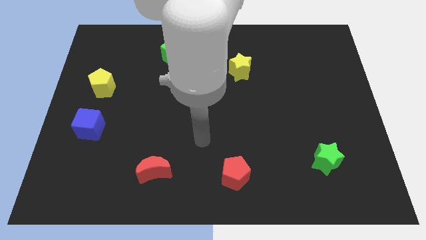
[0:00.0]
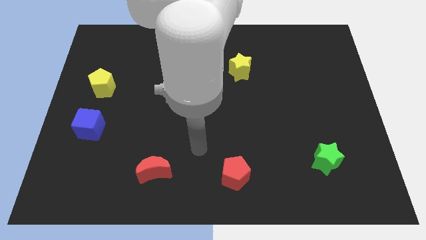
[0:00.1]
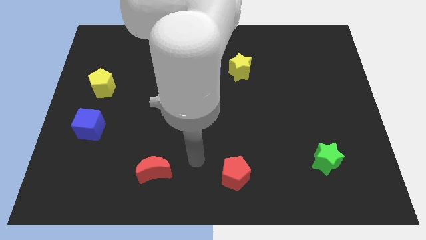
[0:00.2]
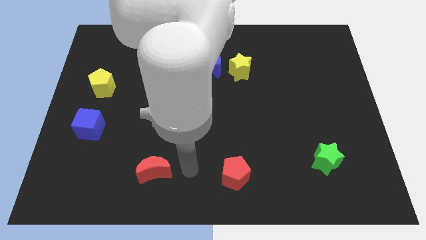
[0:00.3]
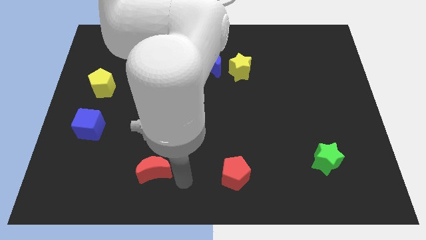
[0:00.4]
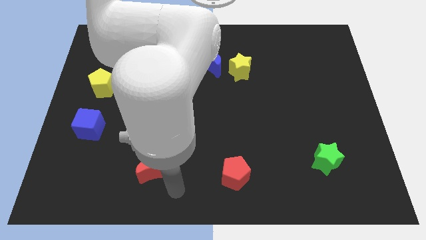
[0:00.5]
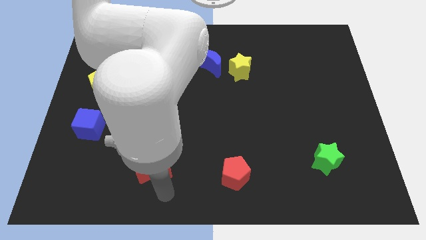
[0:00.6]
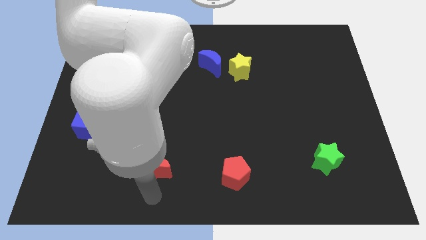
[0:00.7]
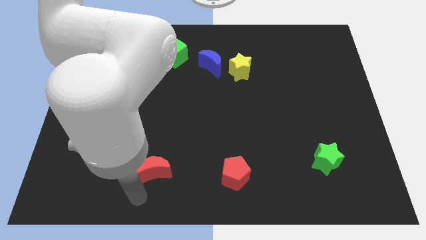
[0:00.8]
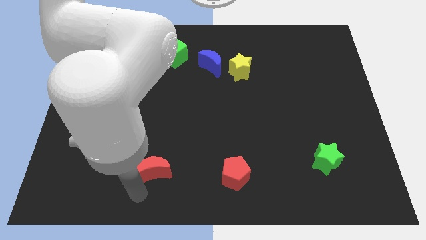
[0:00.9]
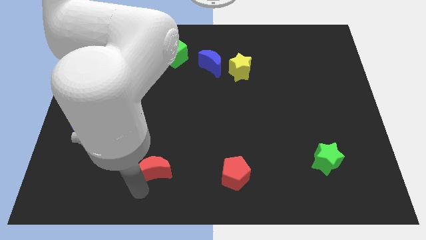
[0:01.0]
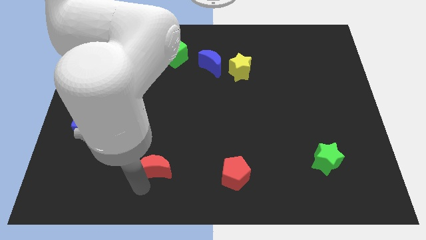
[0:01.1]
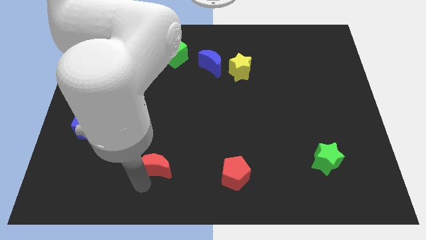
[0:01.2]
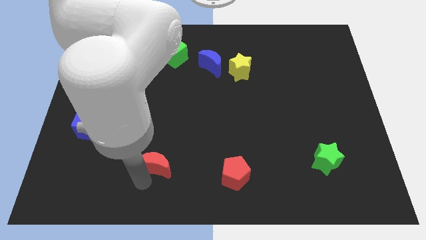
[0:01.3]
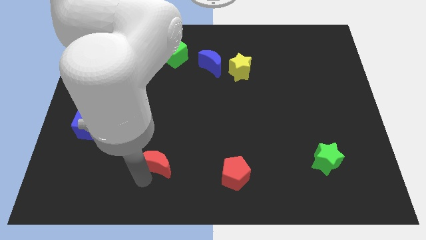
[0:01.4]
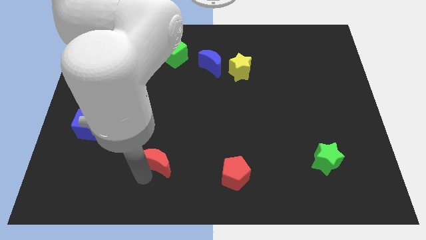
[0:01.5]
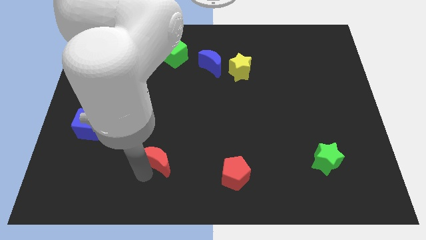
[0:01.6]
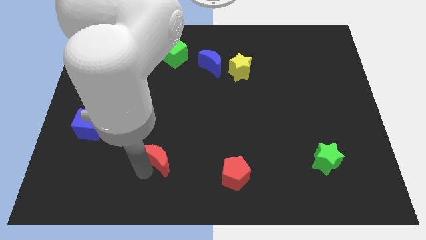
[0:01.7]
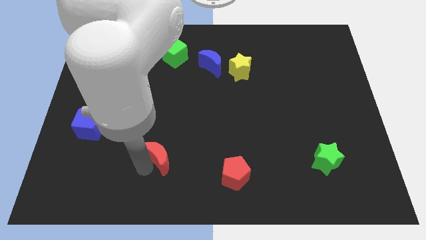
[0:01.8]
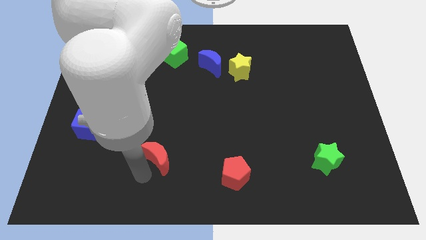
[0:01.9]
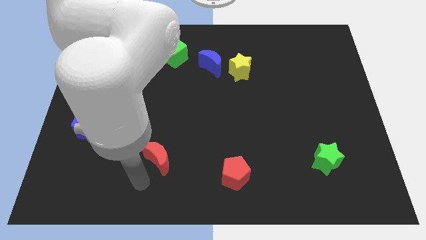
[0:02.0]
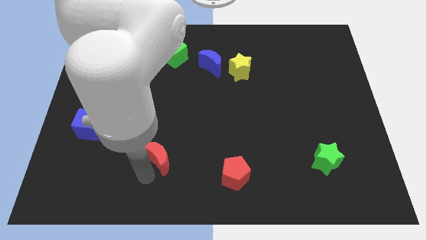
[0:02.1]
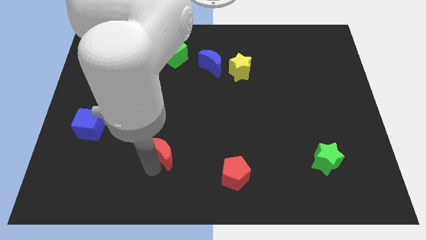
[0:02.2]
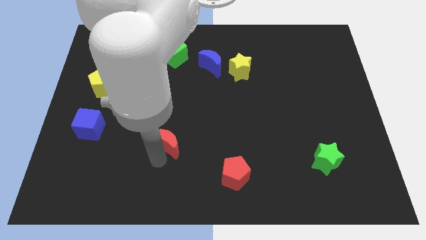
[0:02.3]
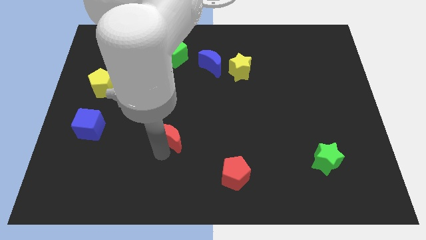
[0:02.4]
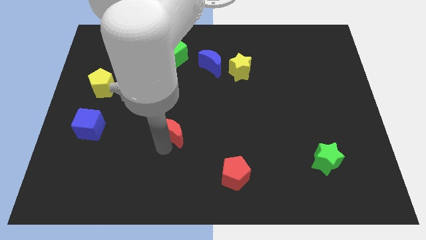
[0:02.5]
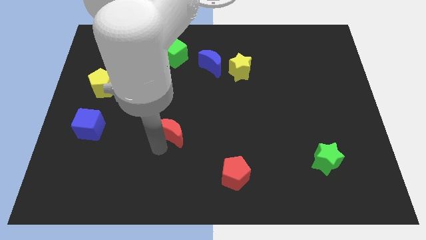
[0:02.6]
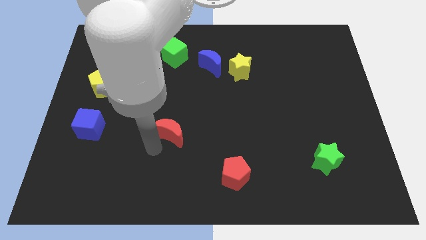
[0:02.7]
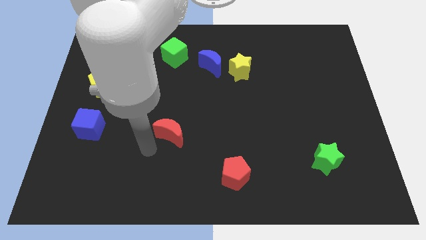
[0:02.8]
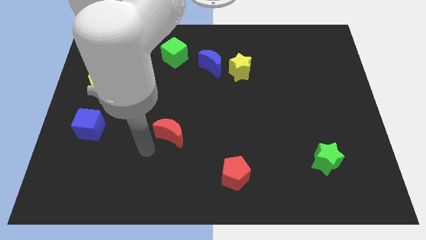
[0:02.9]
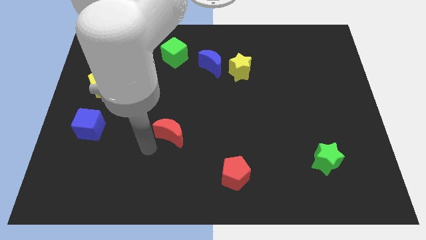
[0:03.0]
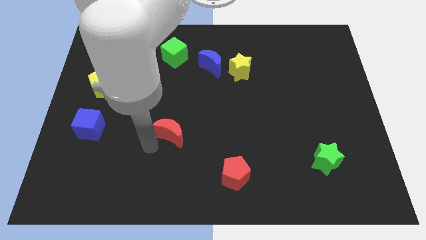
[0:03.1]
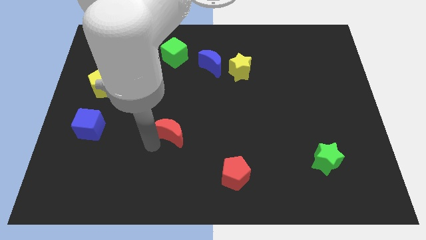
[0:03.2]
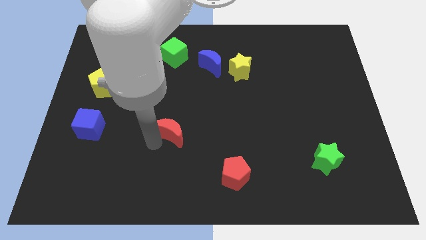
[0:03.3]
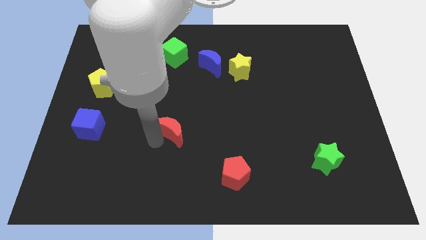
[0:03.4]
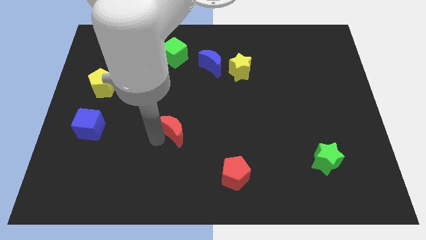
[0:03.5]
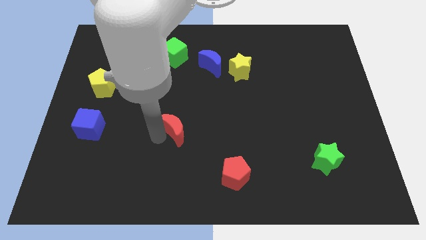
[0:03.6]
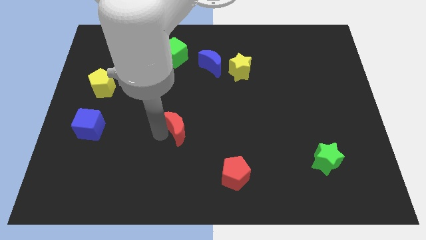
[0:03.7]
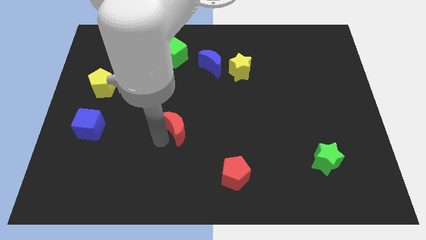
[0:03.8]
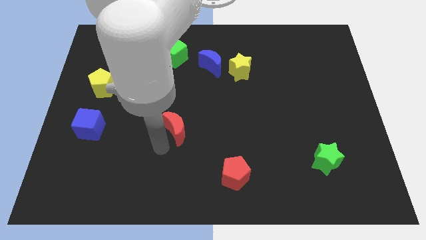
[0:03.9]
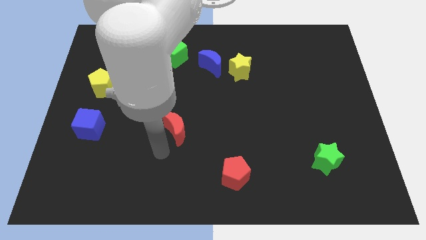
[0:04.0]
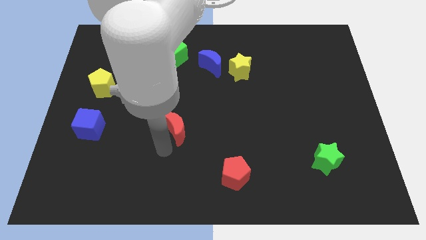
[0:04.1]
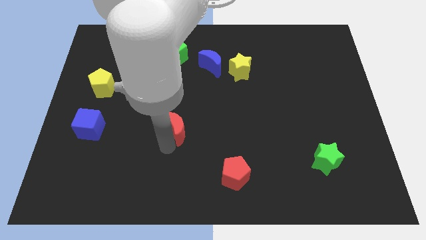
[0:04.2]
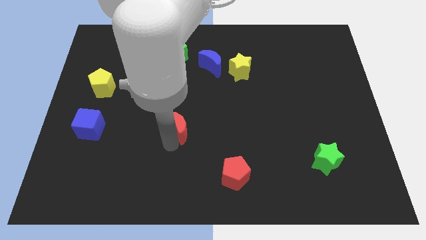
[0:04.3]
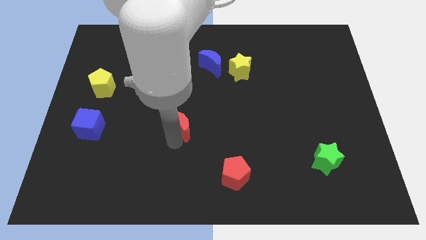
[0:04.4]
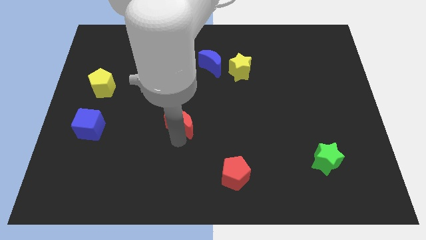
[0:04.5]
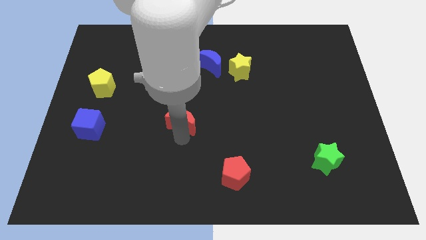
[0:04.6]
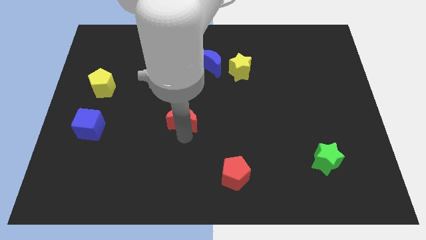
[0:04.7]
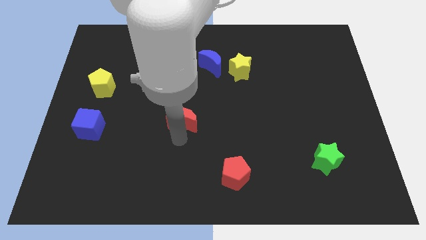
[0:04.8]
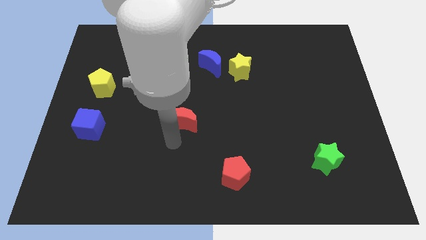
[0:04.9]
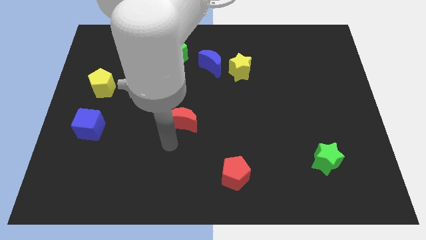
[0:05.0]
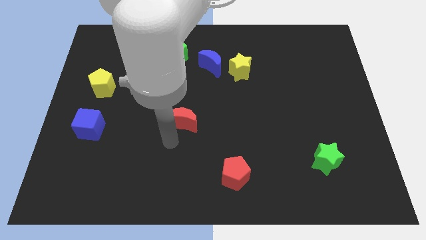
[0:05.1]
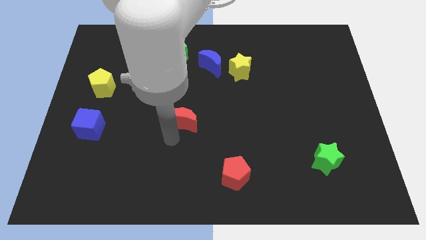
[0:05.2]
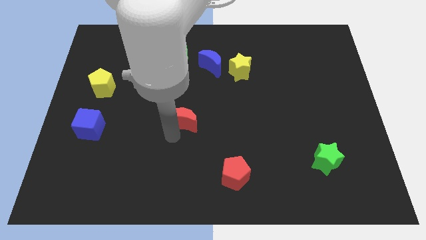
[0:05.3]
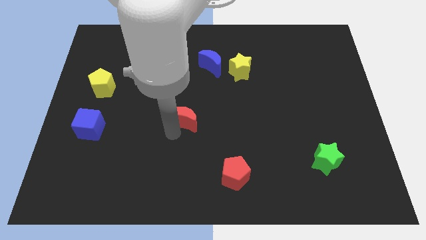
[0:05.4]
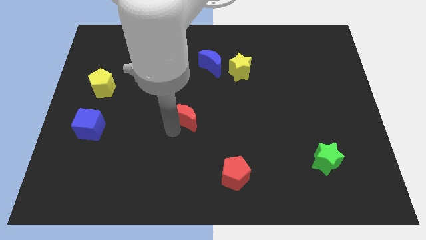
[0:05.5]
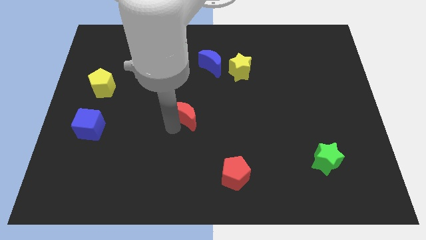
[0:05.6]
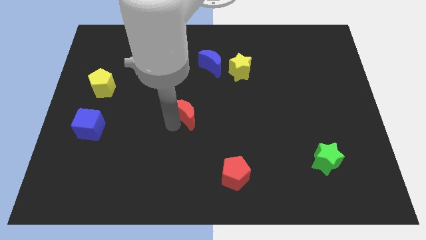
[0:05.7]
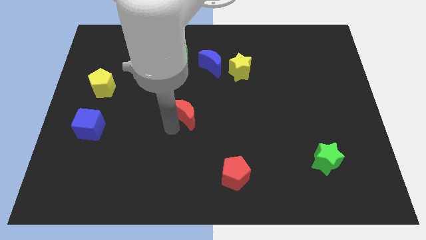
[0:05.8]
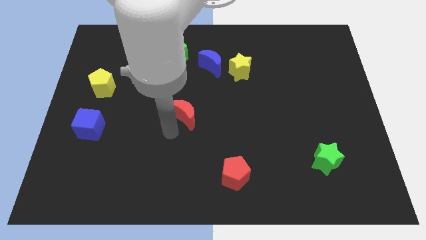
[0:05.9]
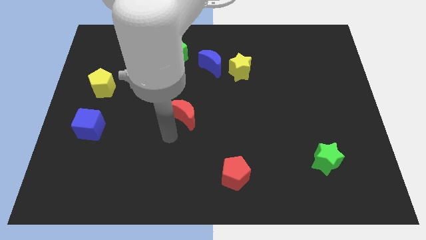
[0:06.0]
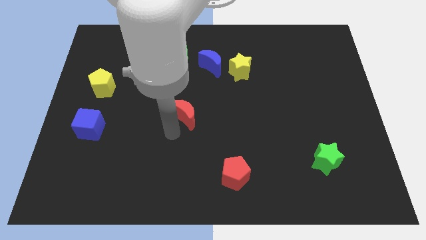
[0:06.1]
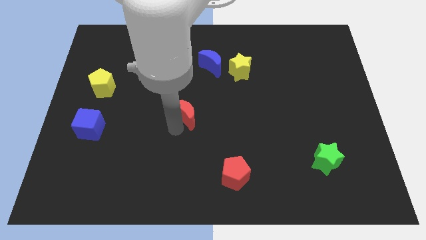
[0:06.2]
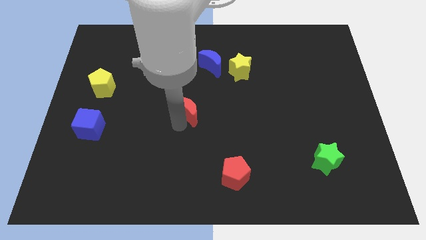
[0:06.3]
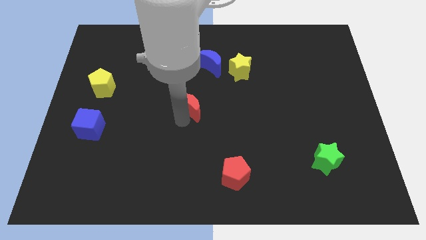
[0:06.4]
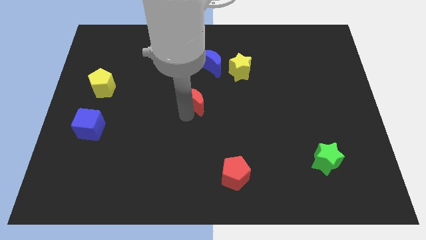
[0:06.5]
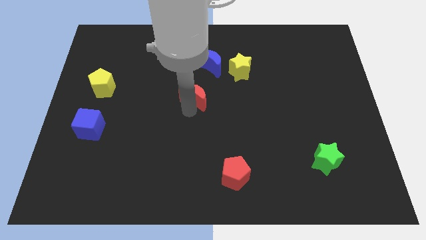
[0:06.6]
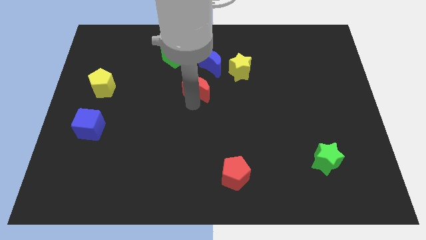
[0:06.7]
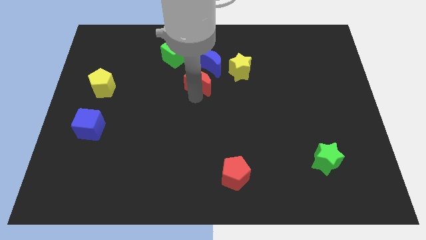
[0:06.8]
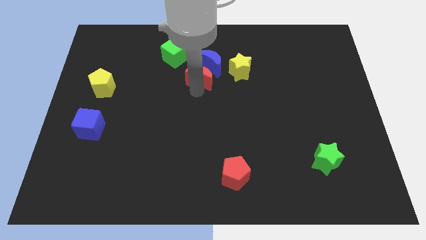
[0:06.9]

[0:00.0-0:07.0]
put the red moon towards the blue moon
